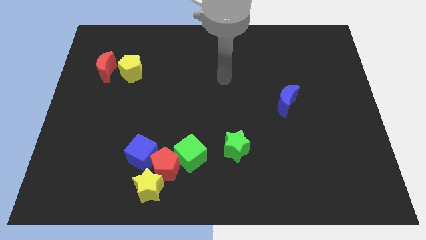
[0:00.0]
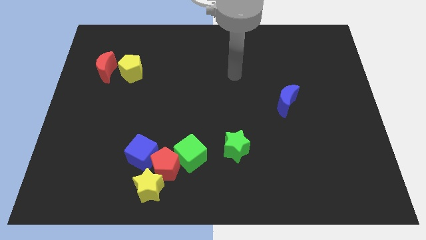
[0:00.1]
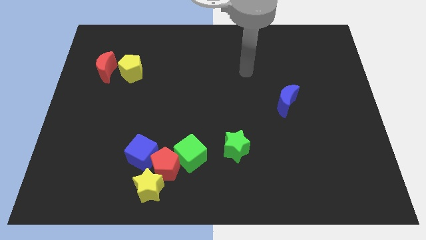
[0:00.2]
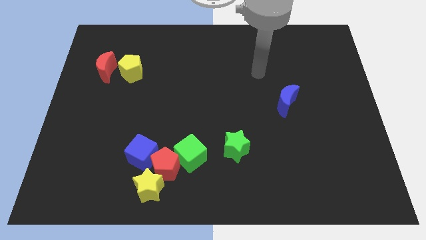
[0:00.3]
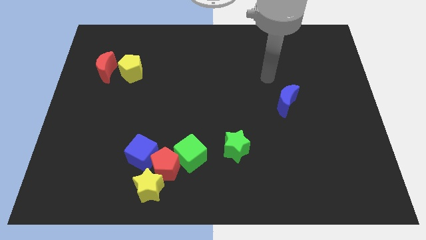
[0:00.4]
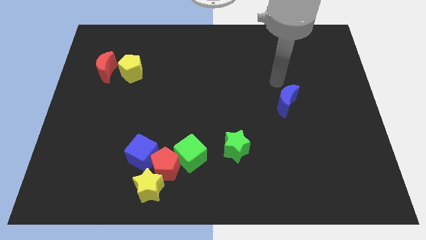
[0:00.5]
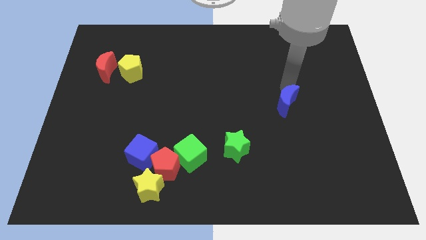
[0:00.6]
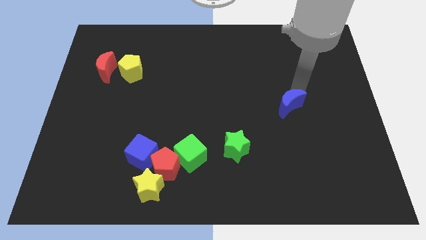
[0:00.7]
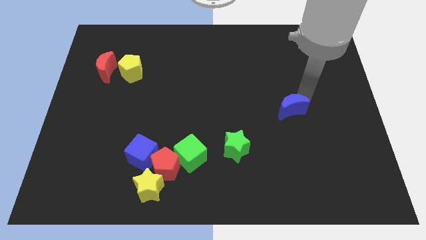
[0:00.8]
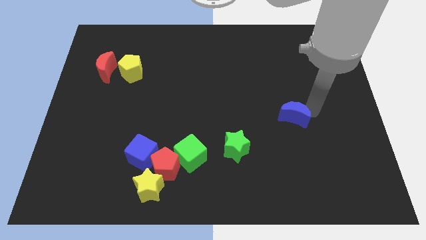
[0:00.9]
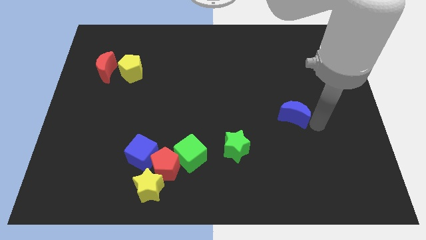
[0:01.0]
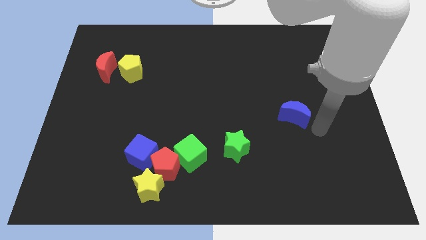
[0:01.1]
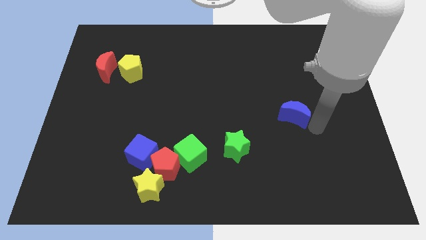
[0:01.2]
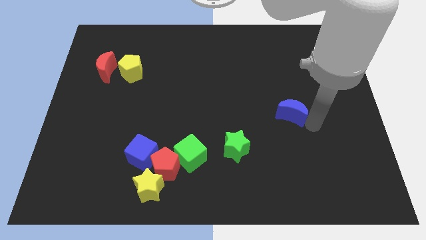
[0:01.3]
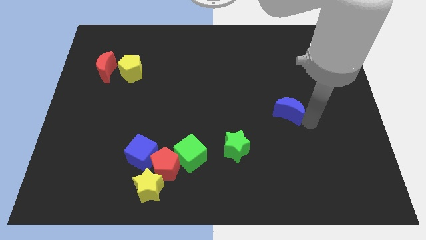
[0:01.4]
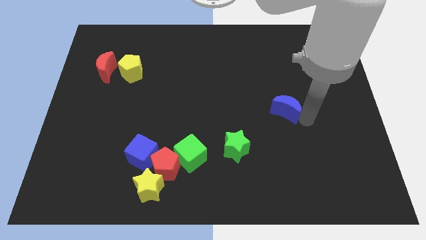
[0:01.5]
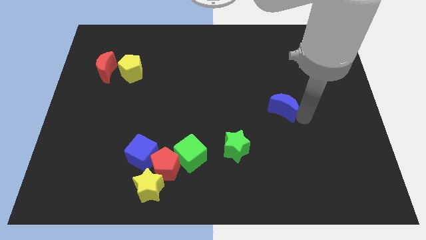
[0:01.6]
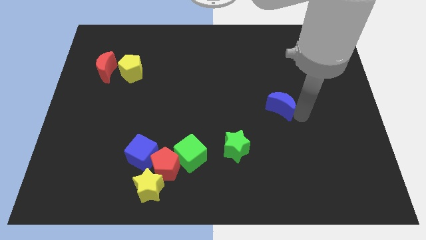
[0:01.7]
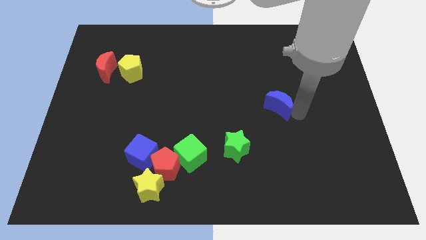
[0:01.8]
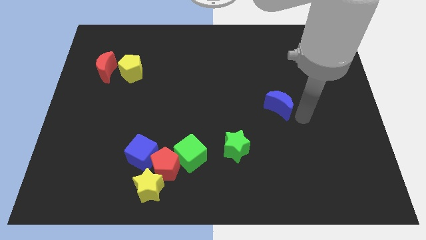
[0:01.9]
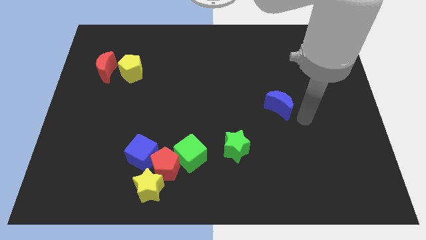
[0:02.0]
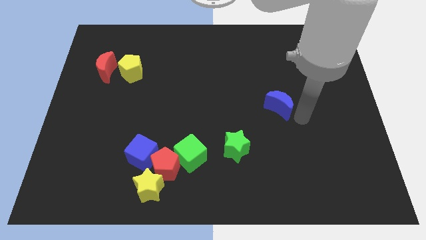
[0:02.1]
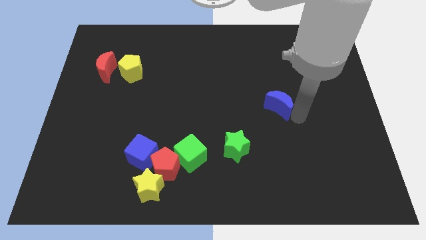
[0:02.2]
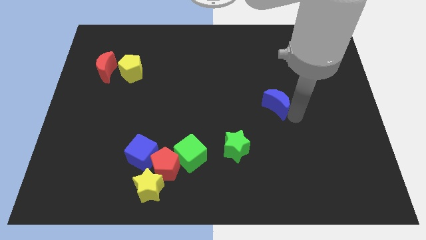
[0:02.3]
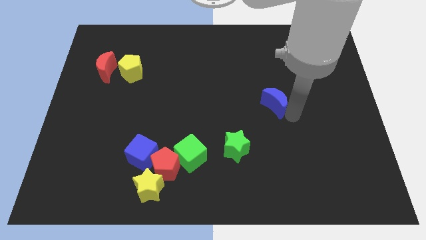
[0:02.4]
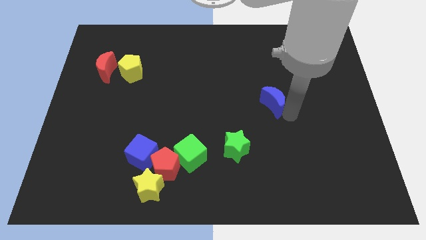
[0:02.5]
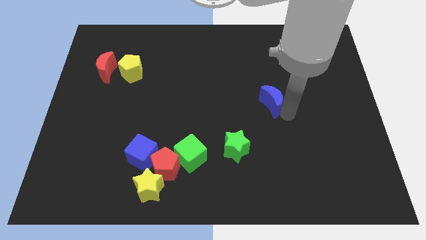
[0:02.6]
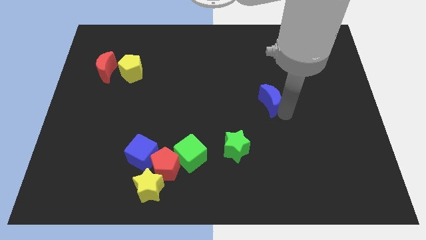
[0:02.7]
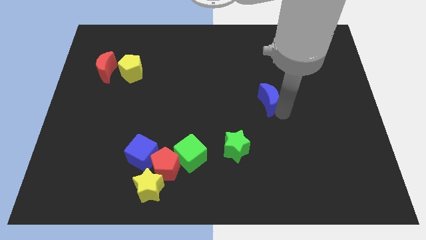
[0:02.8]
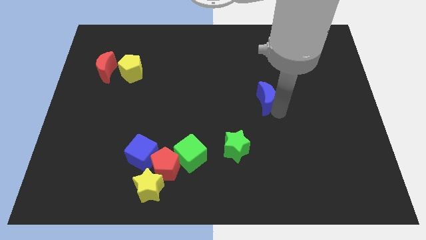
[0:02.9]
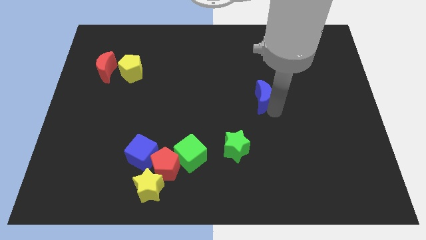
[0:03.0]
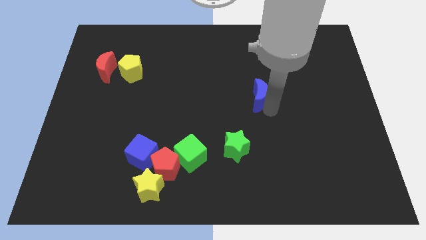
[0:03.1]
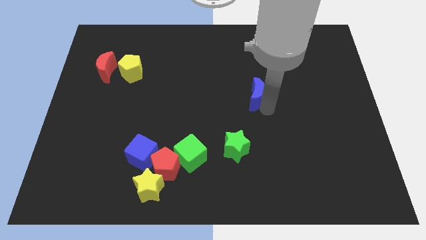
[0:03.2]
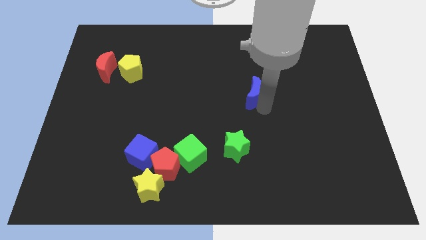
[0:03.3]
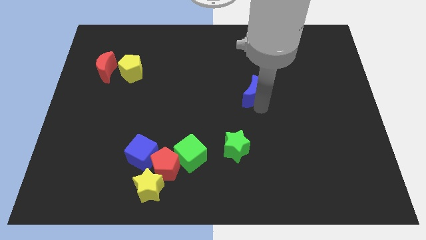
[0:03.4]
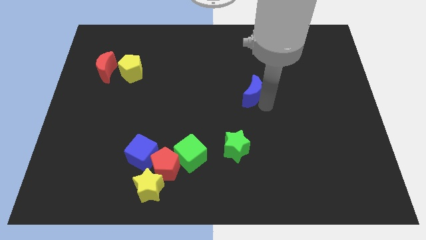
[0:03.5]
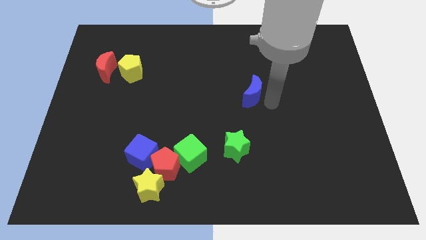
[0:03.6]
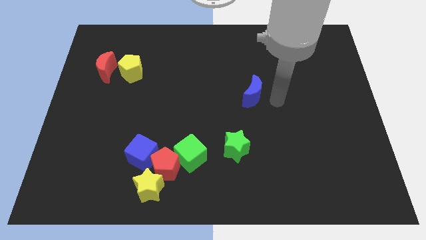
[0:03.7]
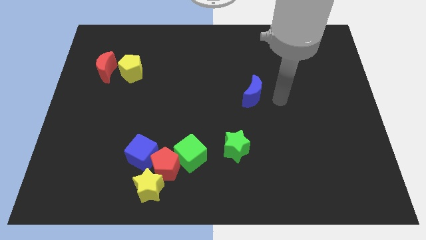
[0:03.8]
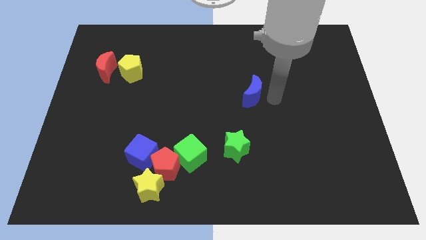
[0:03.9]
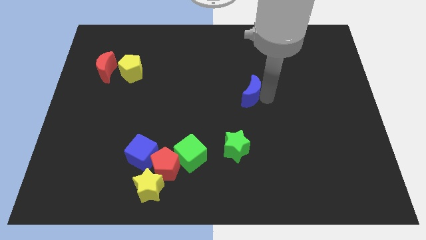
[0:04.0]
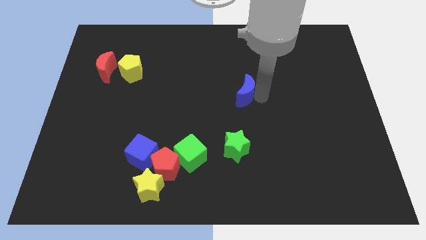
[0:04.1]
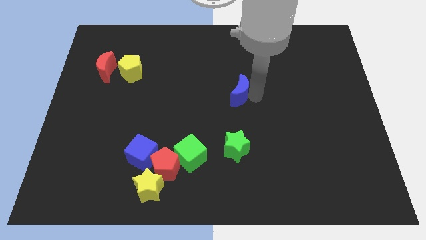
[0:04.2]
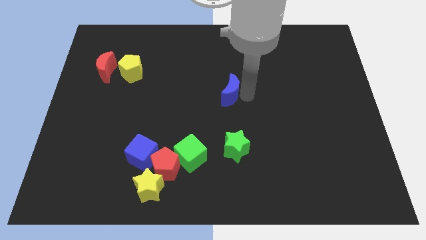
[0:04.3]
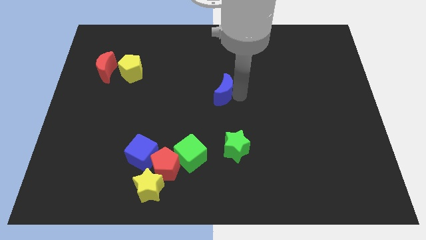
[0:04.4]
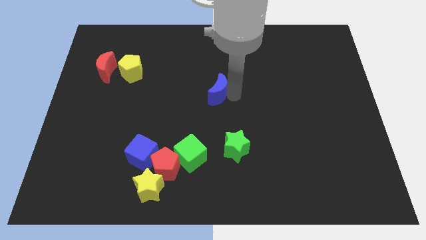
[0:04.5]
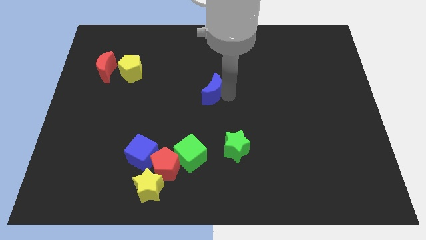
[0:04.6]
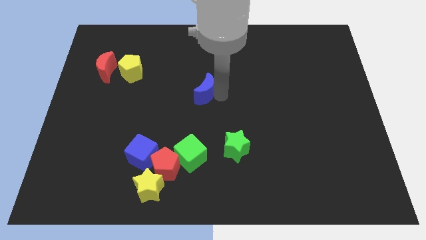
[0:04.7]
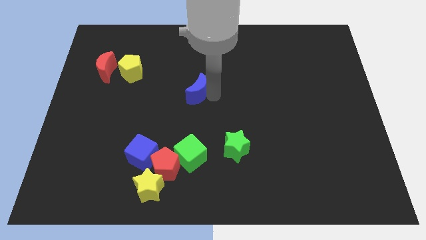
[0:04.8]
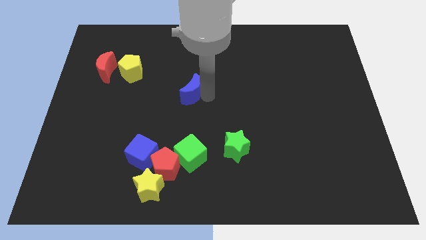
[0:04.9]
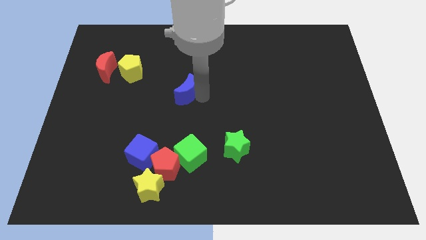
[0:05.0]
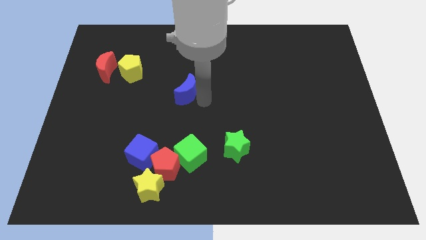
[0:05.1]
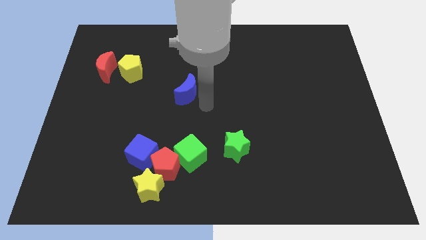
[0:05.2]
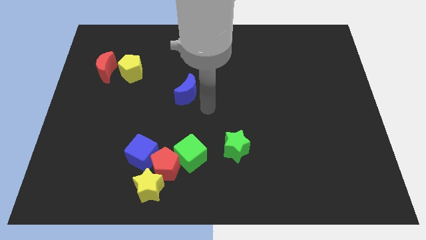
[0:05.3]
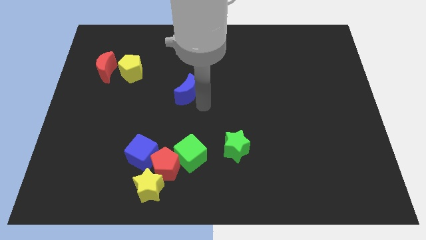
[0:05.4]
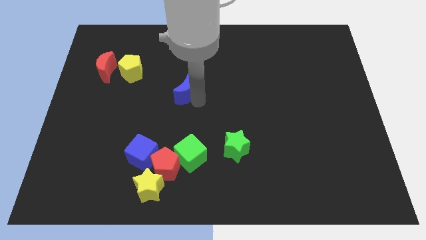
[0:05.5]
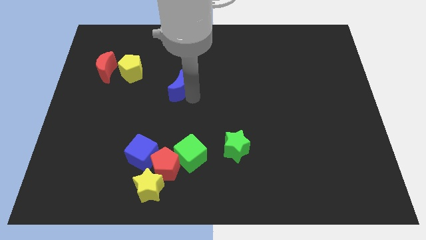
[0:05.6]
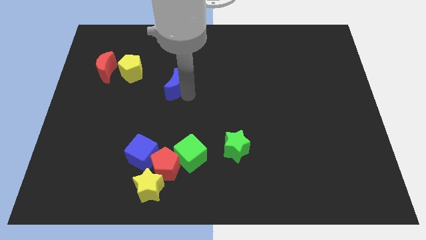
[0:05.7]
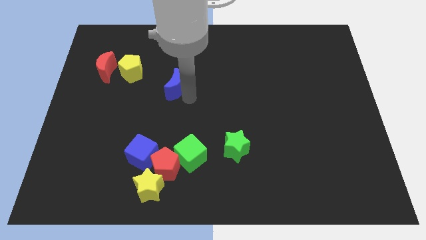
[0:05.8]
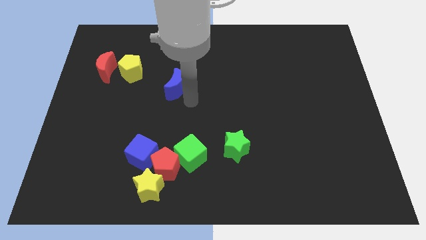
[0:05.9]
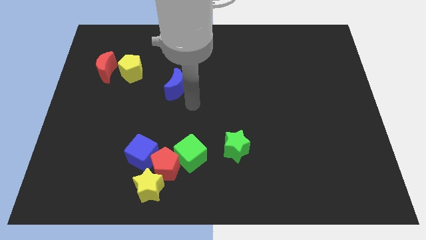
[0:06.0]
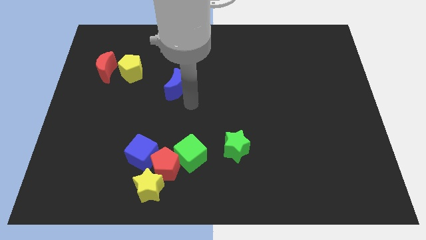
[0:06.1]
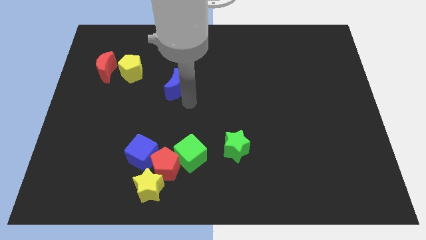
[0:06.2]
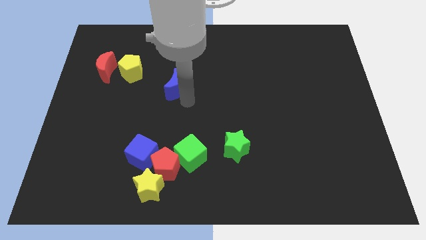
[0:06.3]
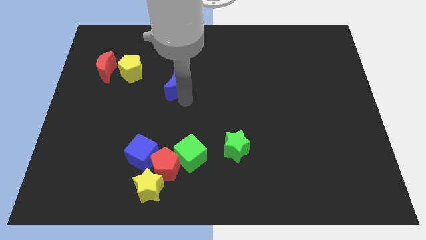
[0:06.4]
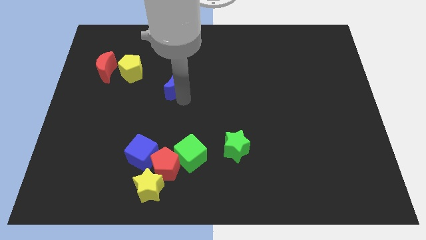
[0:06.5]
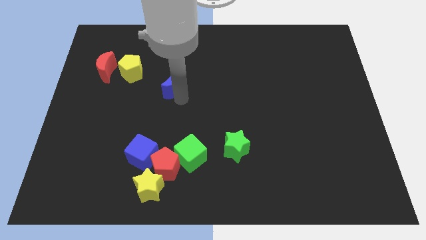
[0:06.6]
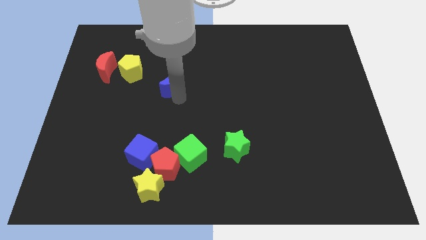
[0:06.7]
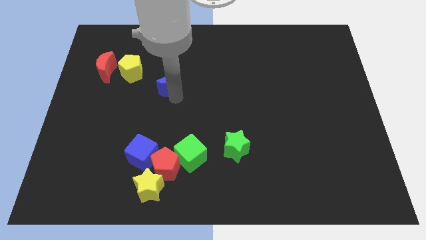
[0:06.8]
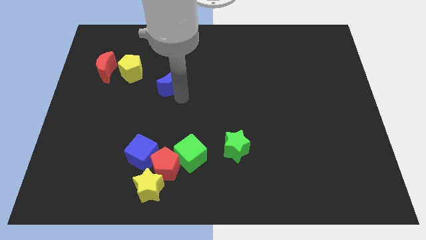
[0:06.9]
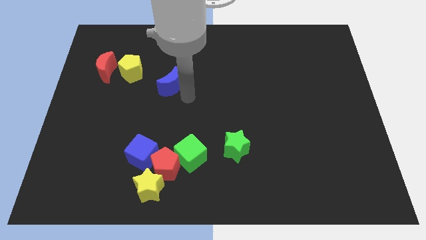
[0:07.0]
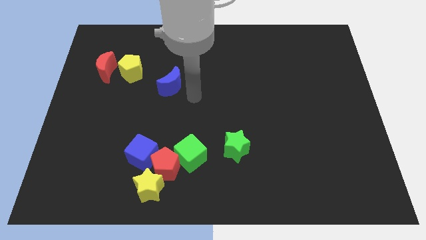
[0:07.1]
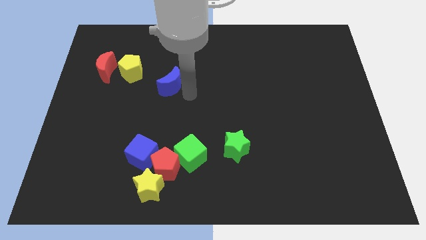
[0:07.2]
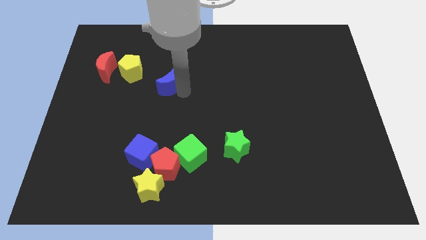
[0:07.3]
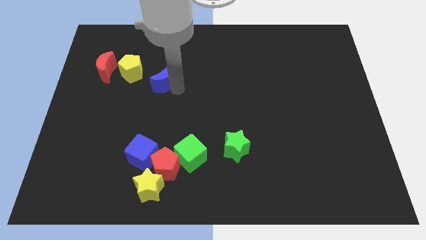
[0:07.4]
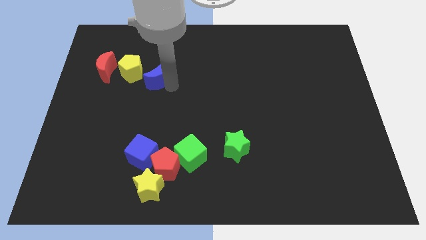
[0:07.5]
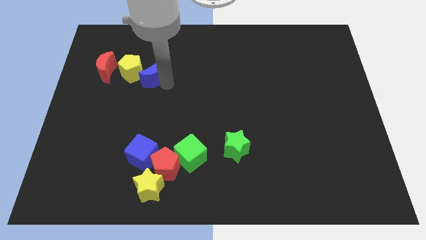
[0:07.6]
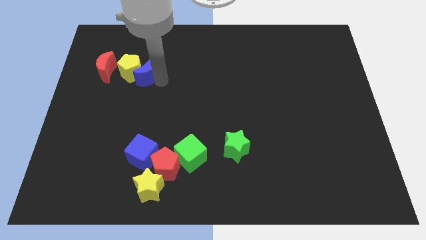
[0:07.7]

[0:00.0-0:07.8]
slide the blue moon next to the yellow pentagon
